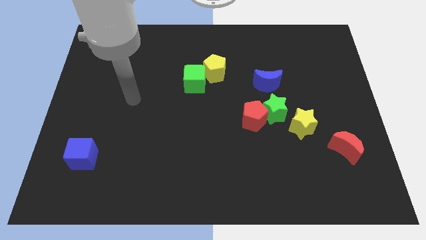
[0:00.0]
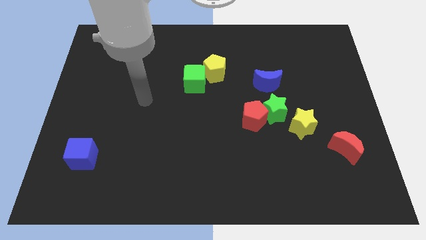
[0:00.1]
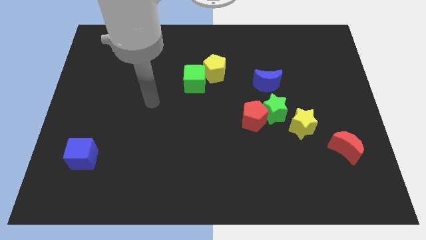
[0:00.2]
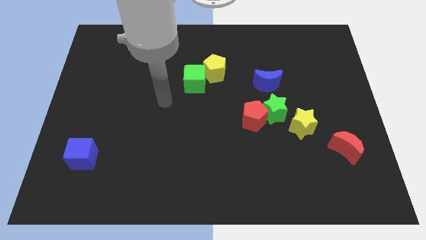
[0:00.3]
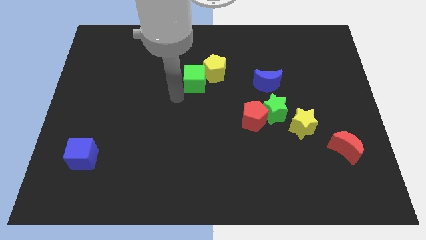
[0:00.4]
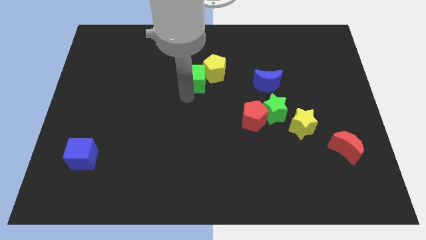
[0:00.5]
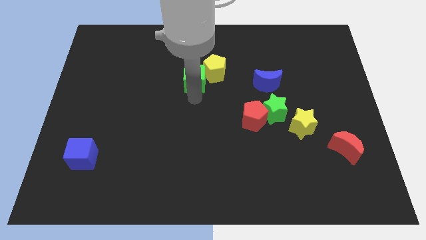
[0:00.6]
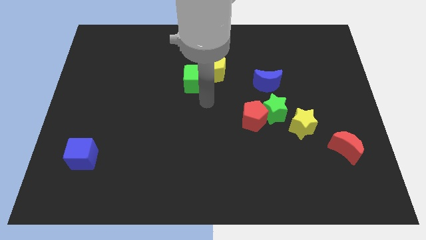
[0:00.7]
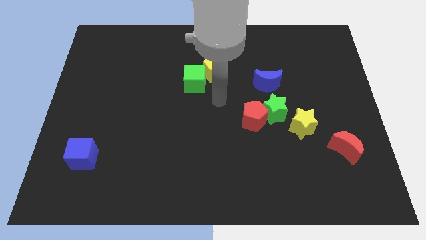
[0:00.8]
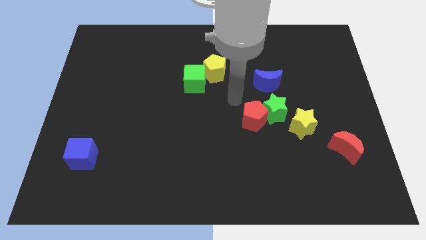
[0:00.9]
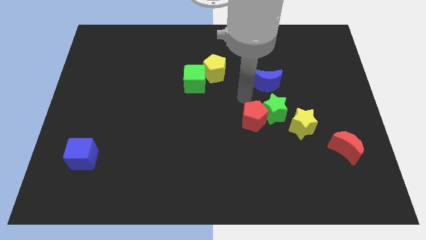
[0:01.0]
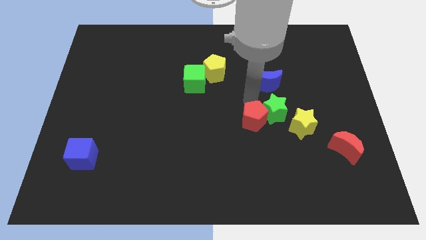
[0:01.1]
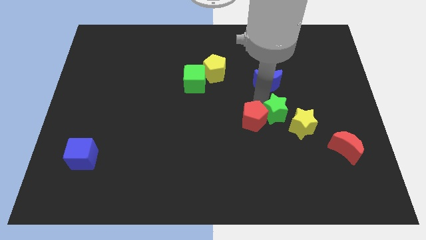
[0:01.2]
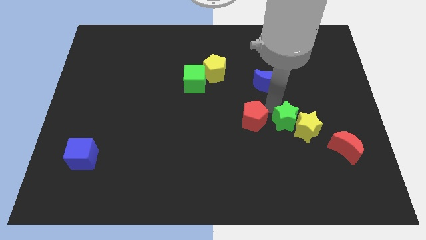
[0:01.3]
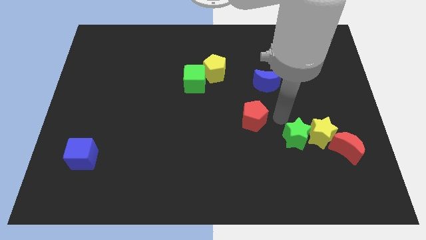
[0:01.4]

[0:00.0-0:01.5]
separate the red pentagon from the green star

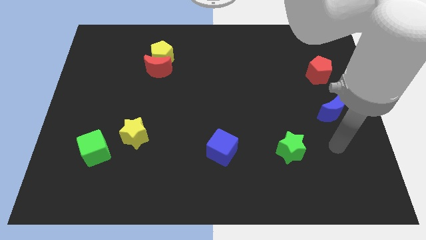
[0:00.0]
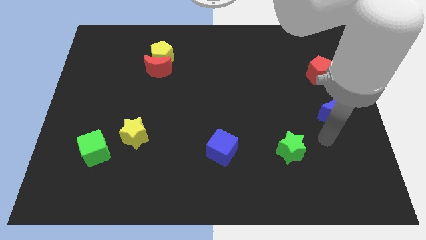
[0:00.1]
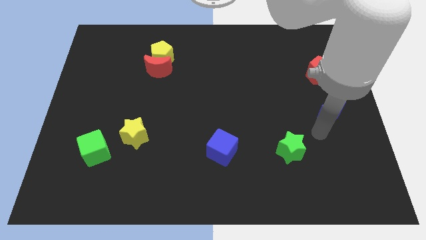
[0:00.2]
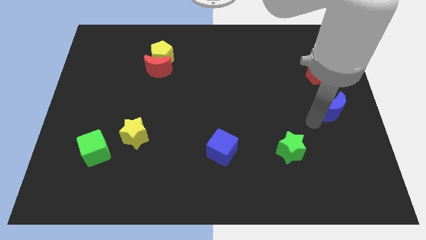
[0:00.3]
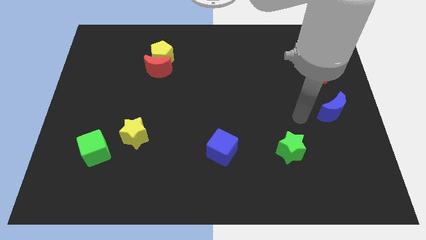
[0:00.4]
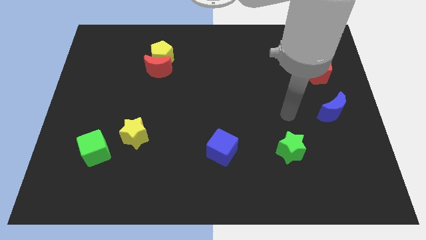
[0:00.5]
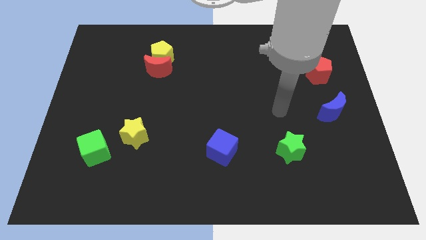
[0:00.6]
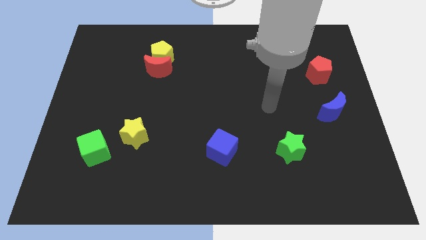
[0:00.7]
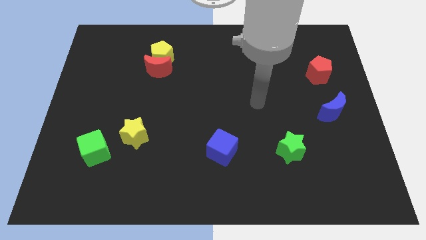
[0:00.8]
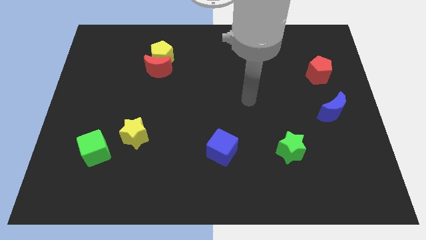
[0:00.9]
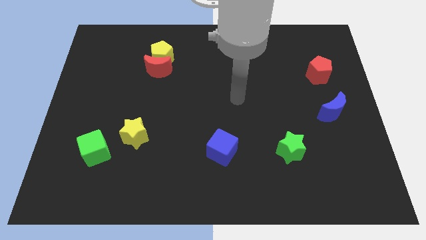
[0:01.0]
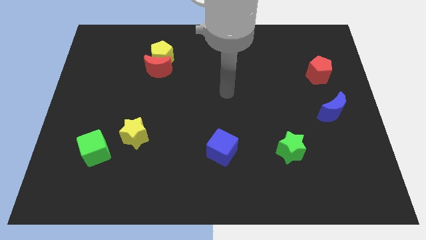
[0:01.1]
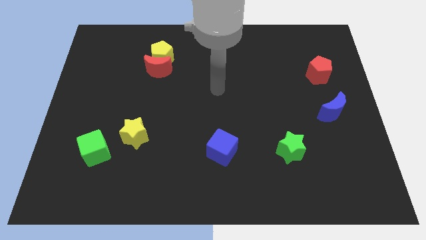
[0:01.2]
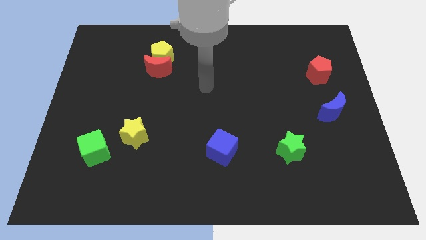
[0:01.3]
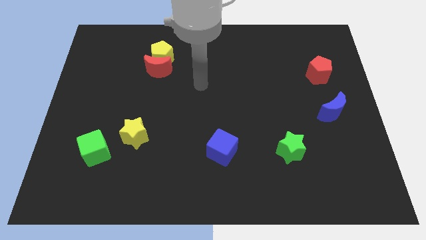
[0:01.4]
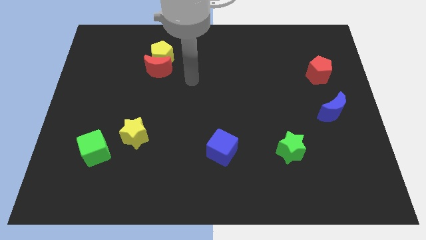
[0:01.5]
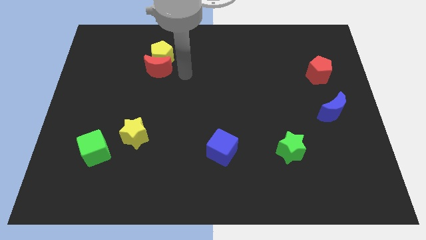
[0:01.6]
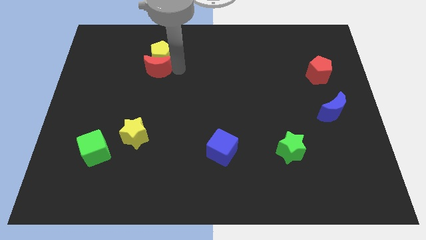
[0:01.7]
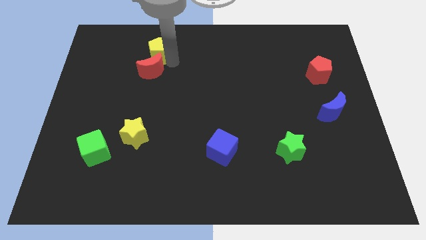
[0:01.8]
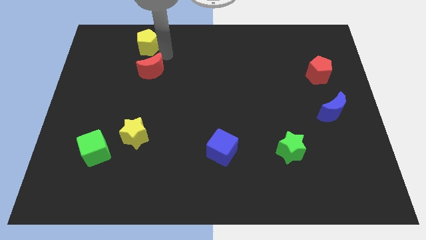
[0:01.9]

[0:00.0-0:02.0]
separate the red moon from the yellow pentagon

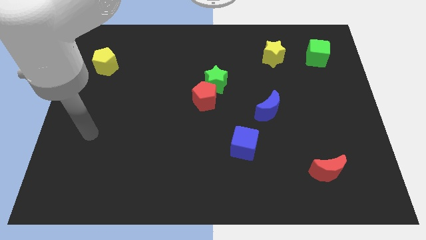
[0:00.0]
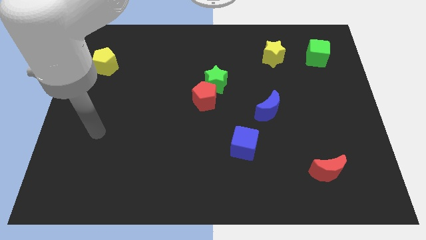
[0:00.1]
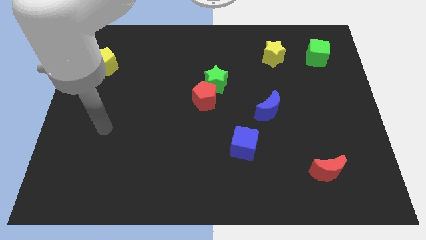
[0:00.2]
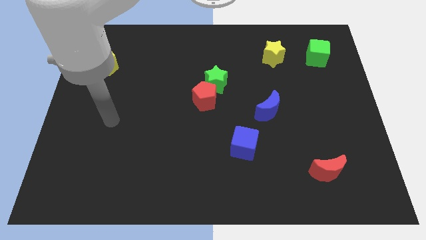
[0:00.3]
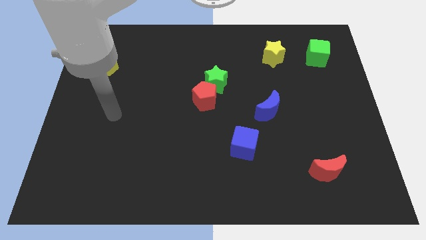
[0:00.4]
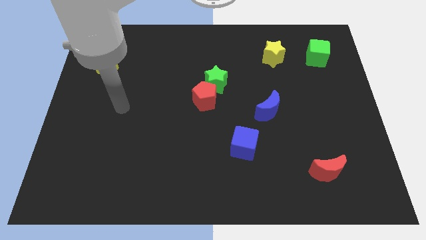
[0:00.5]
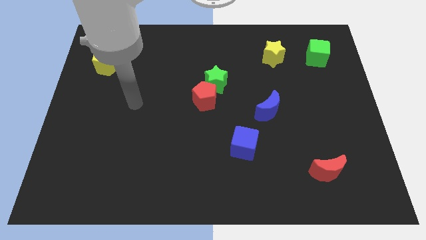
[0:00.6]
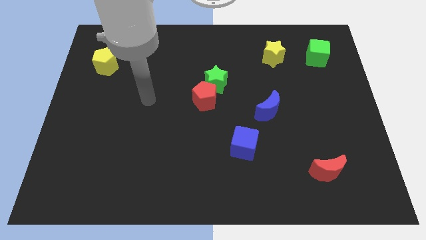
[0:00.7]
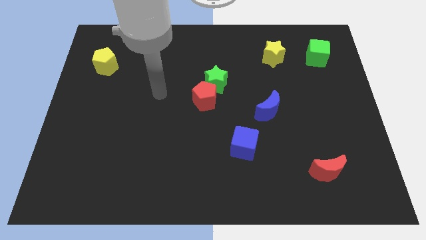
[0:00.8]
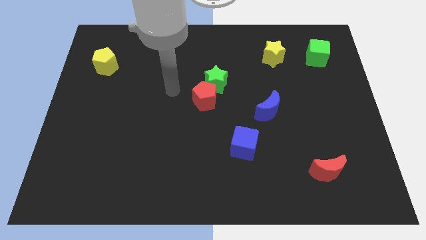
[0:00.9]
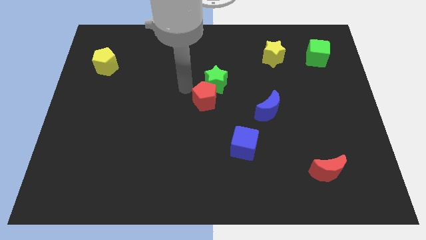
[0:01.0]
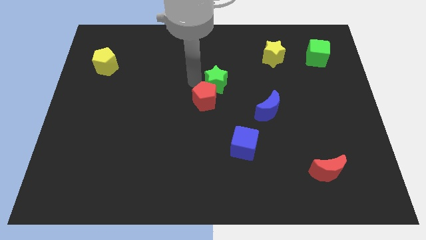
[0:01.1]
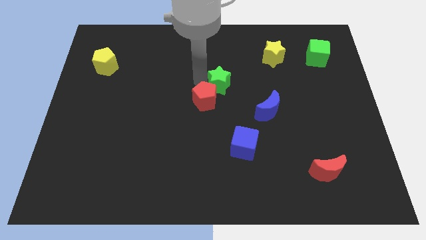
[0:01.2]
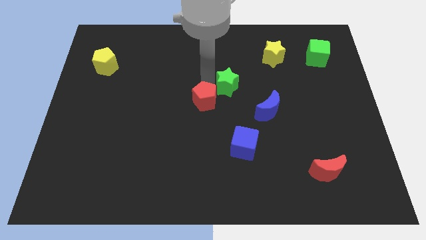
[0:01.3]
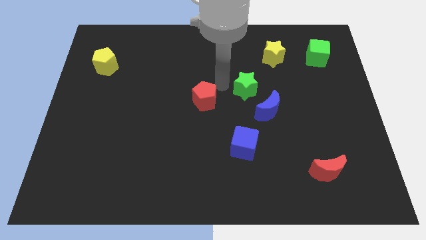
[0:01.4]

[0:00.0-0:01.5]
pull the red pentagon apart from the green star

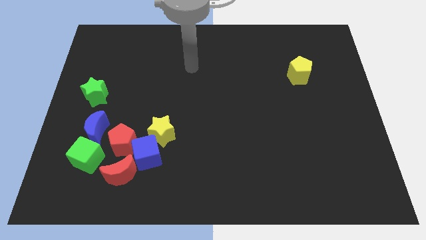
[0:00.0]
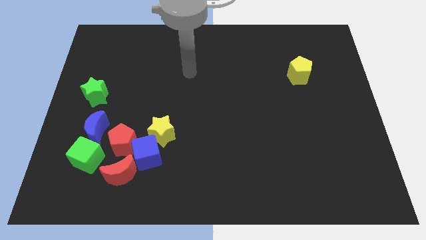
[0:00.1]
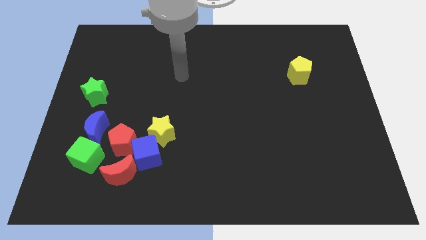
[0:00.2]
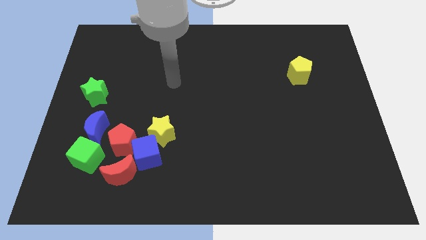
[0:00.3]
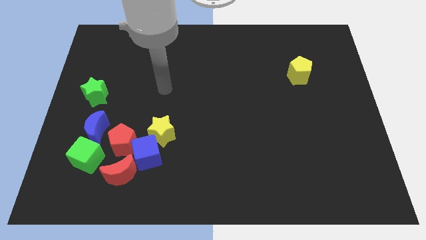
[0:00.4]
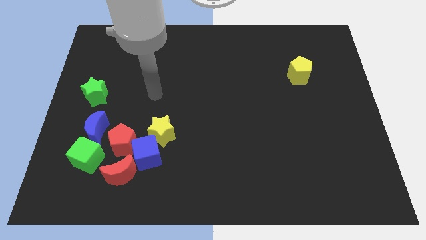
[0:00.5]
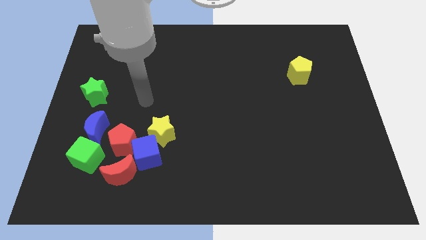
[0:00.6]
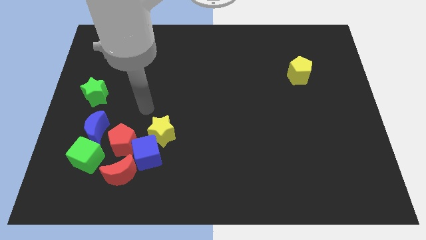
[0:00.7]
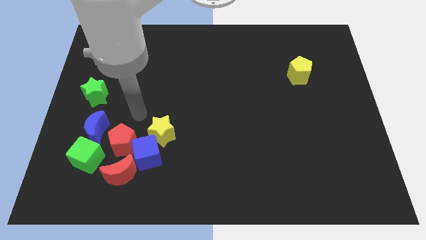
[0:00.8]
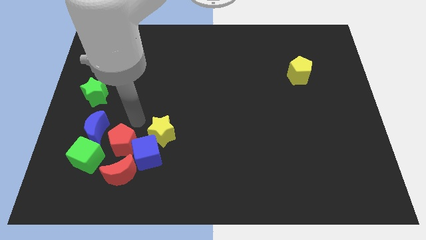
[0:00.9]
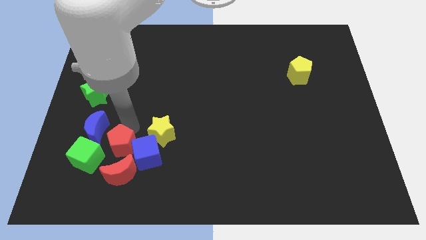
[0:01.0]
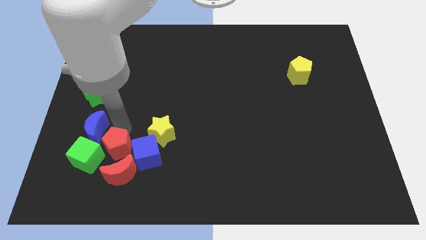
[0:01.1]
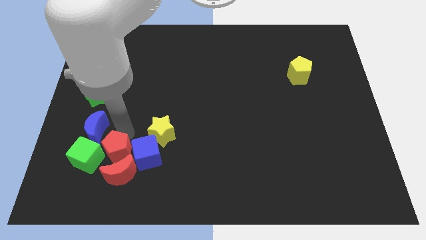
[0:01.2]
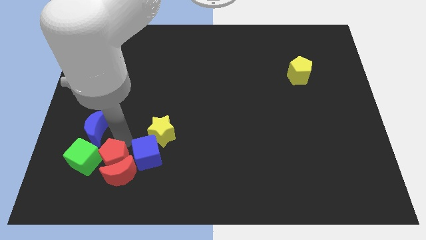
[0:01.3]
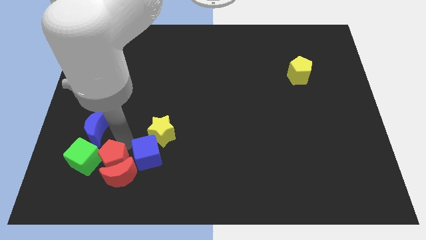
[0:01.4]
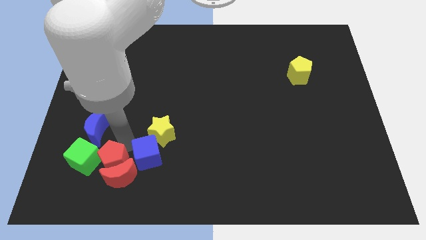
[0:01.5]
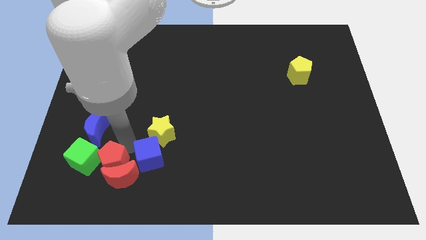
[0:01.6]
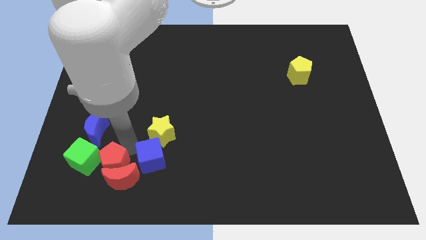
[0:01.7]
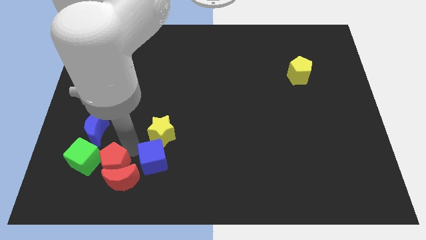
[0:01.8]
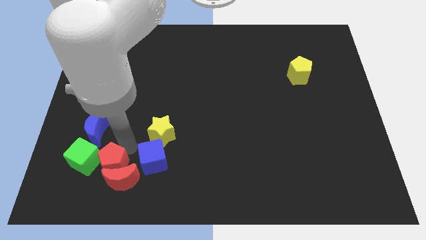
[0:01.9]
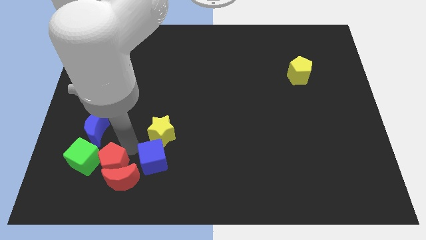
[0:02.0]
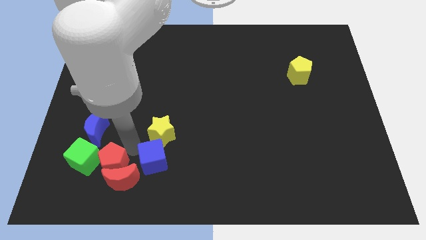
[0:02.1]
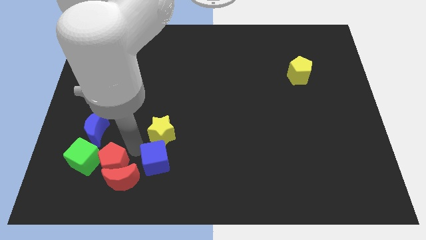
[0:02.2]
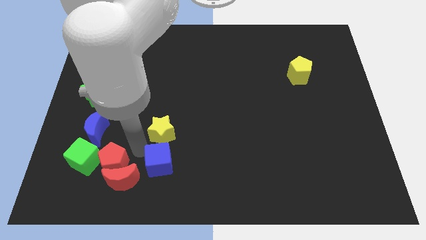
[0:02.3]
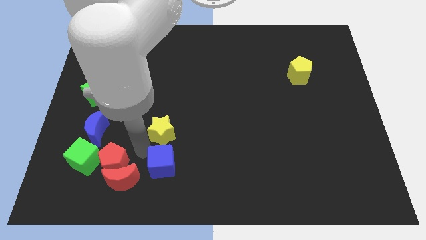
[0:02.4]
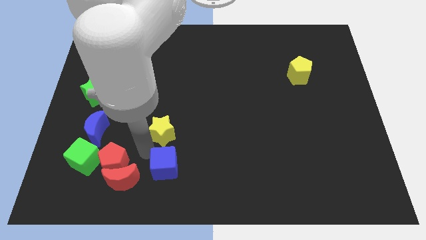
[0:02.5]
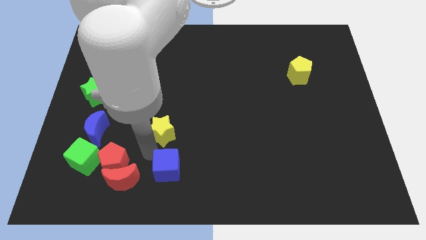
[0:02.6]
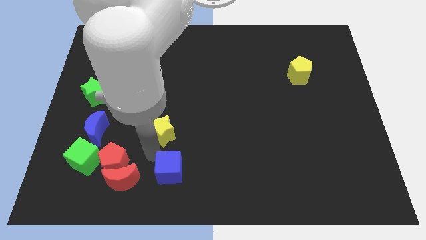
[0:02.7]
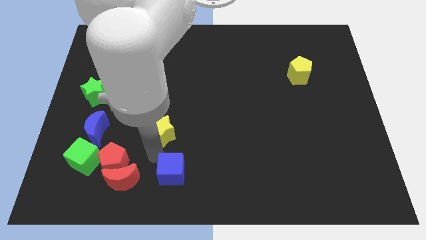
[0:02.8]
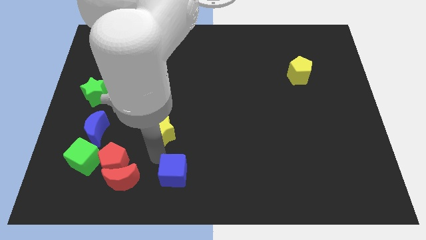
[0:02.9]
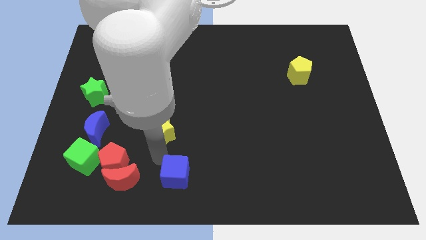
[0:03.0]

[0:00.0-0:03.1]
move the blue cube away from the red pentagon, yellow star, and red moon

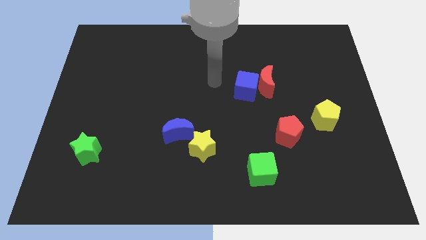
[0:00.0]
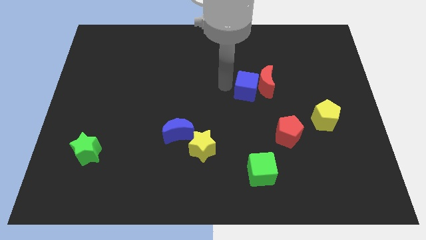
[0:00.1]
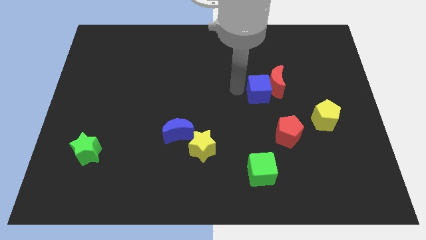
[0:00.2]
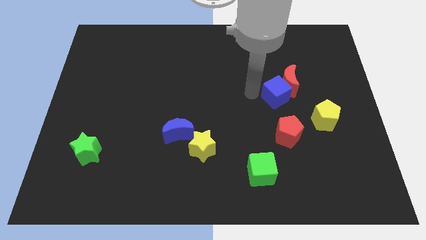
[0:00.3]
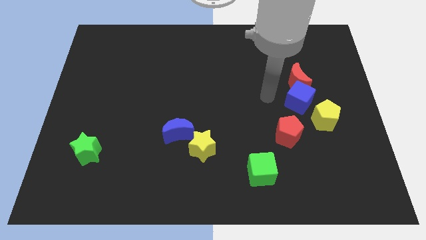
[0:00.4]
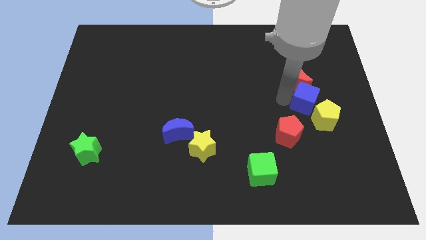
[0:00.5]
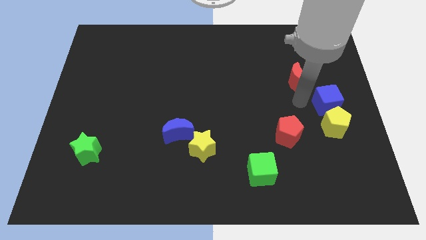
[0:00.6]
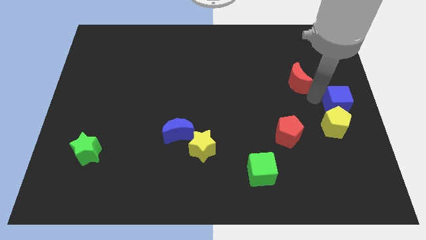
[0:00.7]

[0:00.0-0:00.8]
move the red moon away from the blue cube

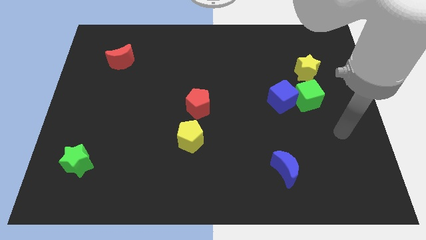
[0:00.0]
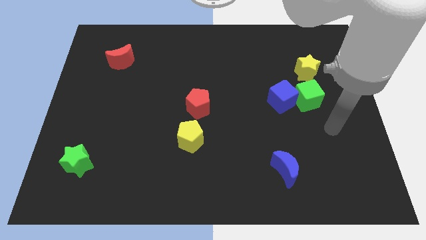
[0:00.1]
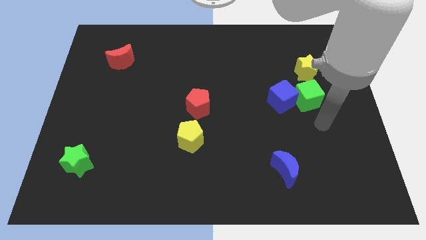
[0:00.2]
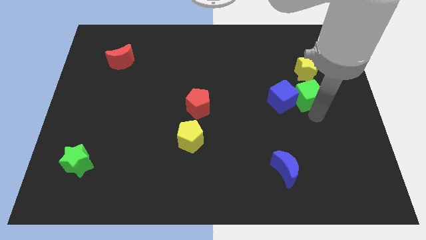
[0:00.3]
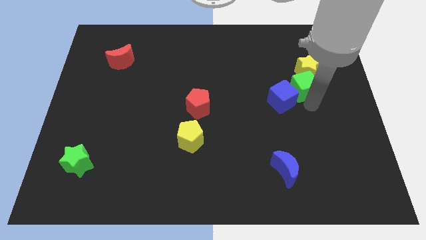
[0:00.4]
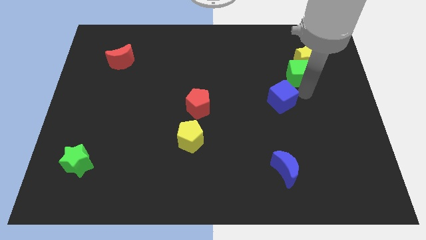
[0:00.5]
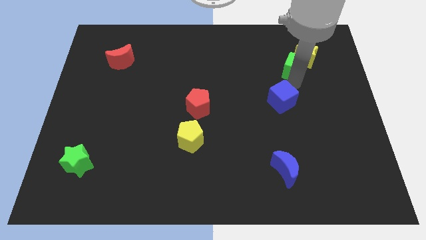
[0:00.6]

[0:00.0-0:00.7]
separate the blue cube from the green cube
